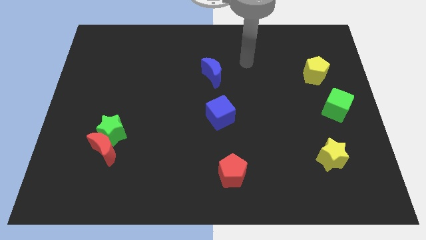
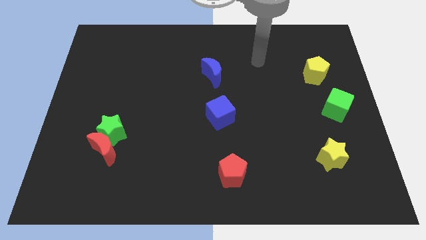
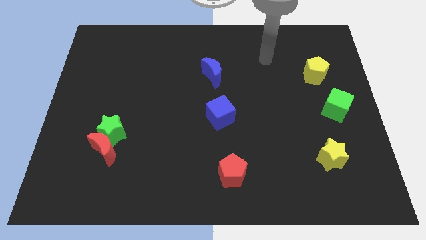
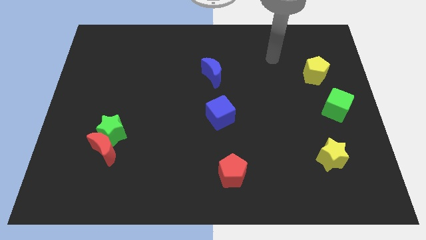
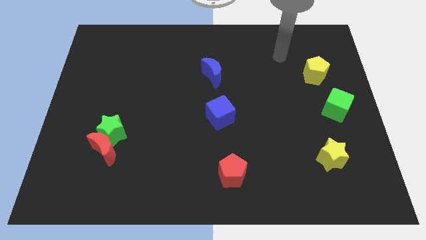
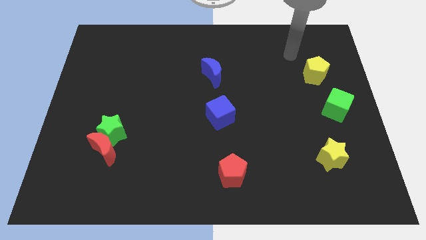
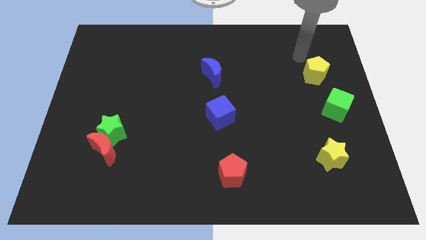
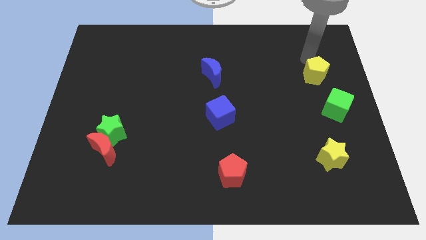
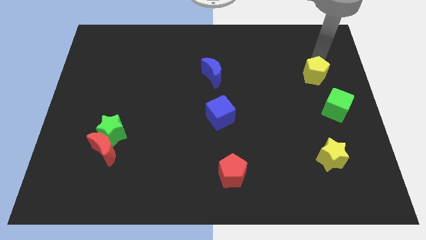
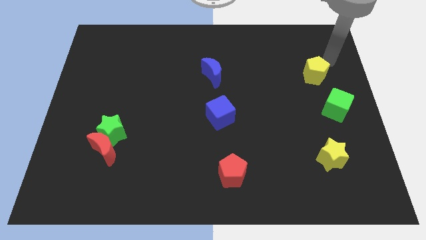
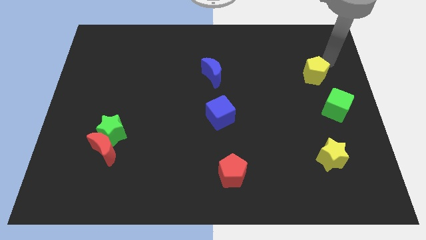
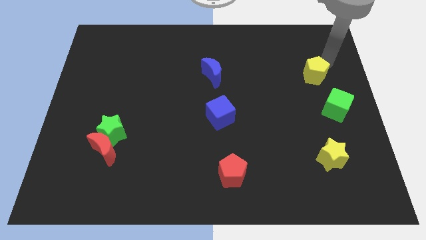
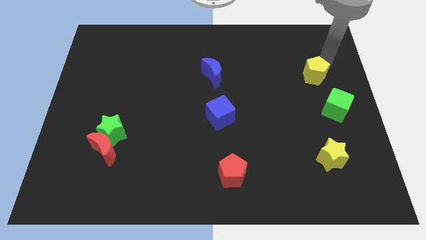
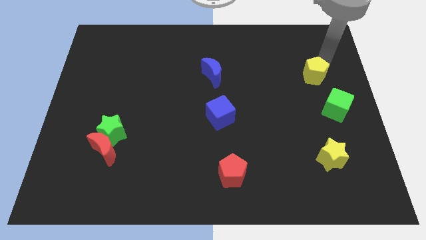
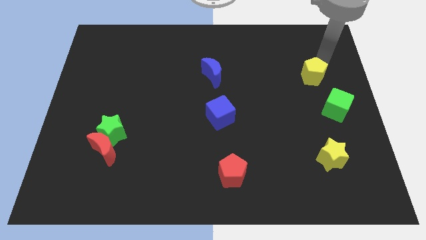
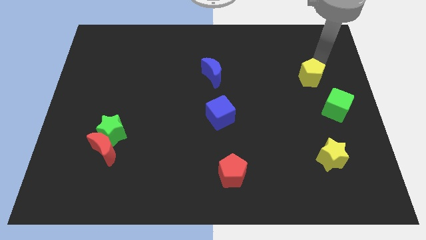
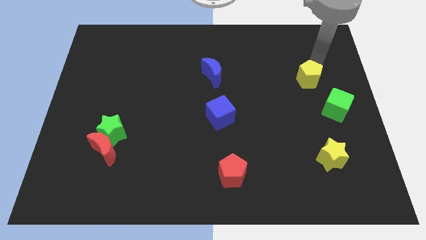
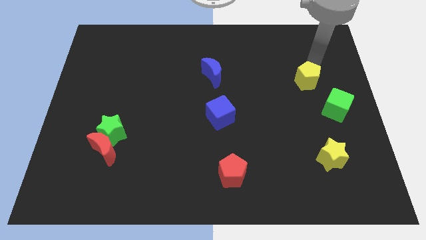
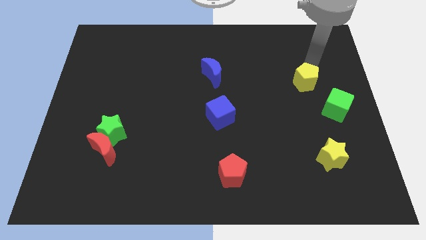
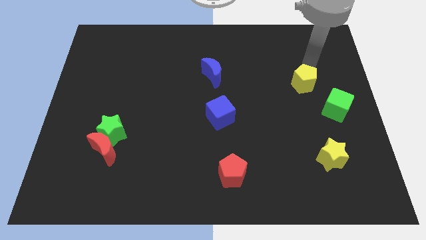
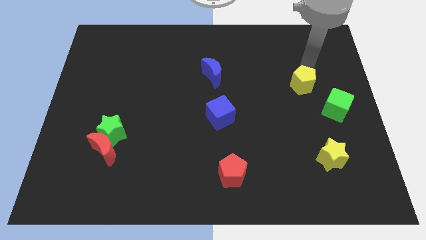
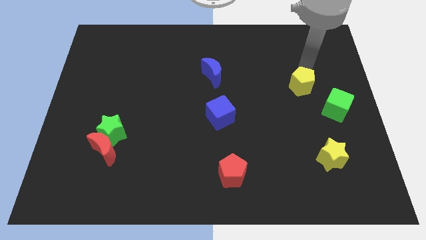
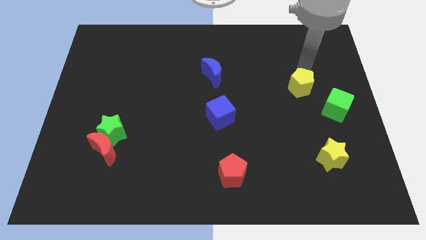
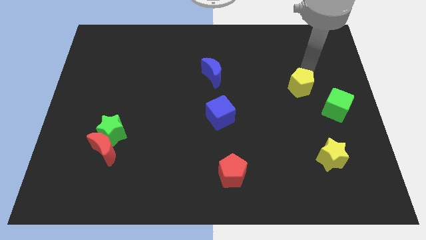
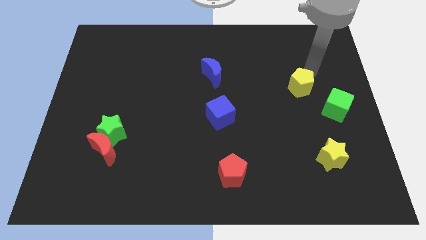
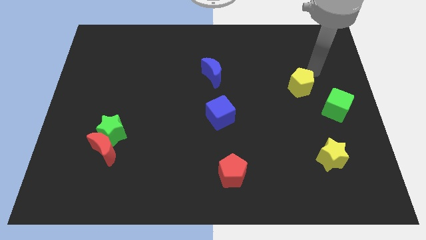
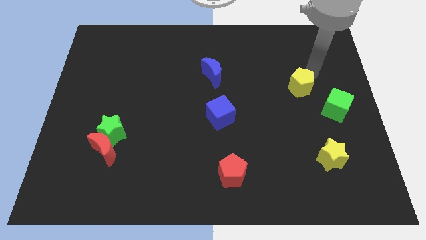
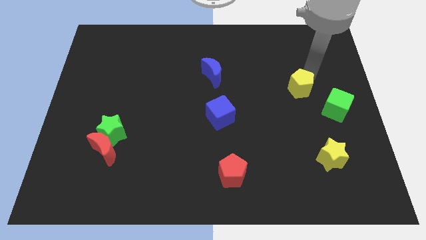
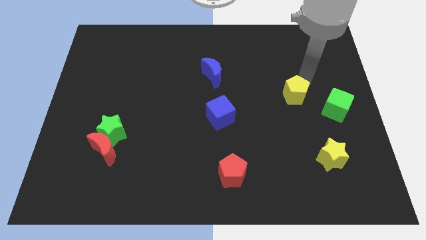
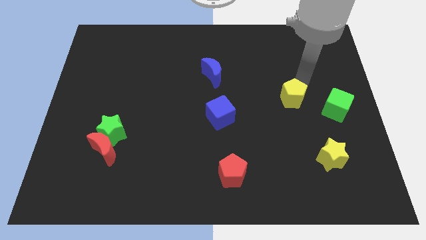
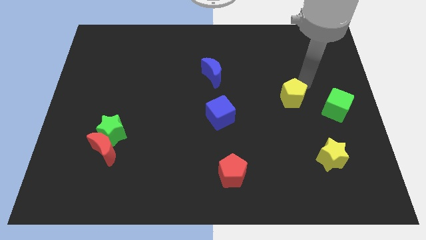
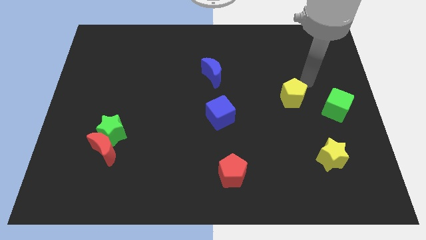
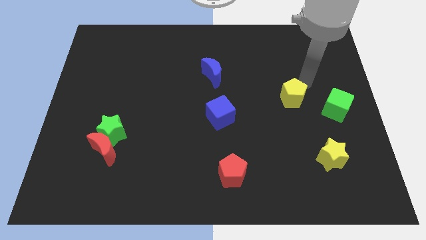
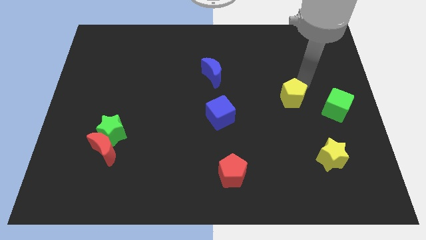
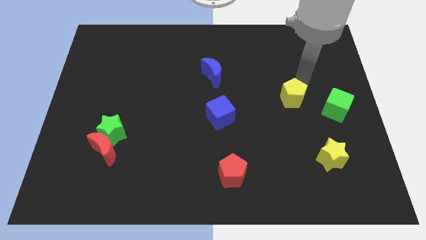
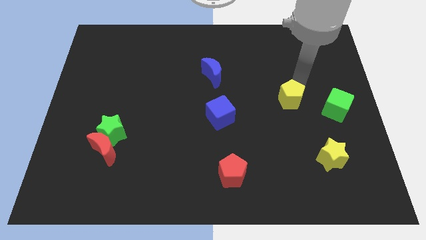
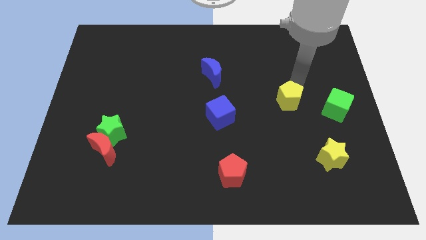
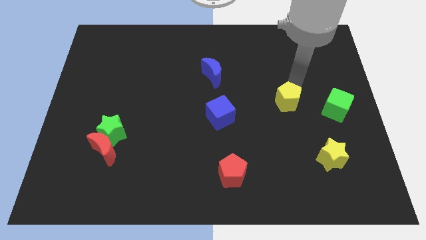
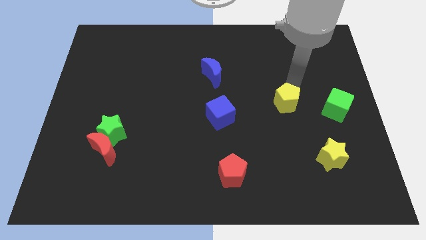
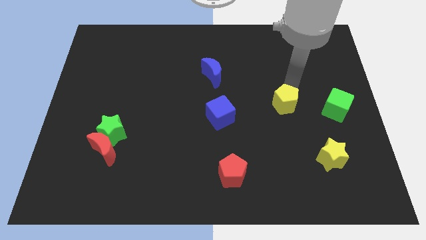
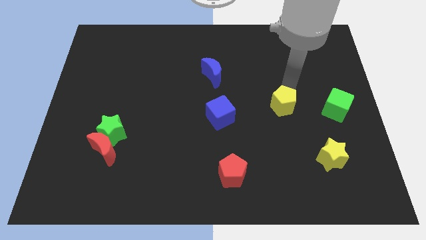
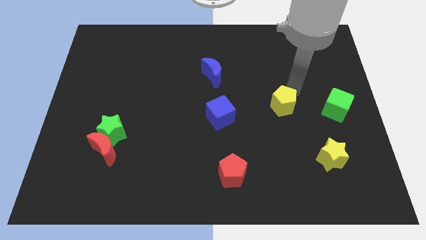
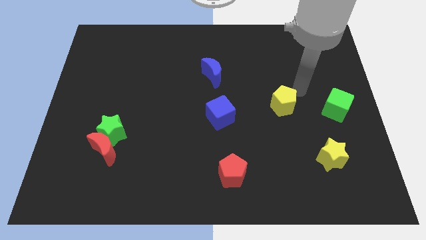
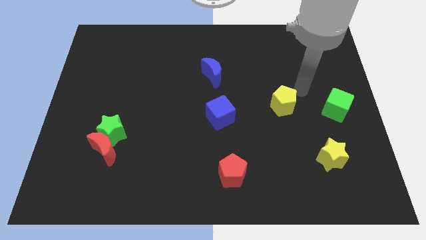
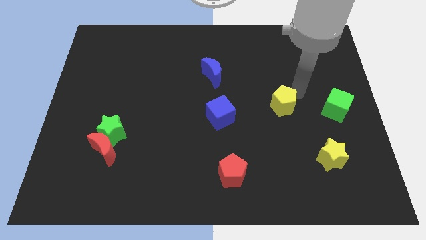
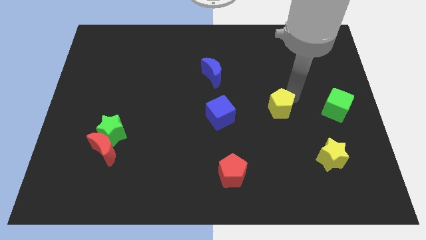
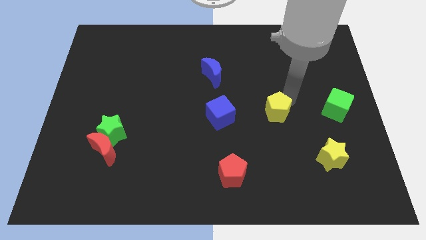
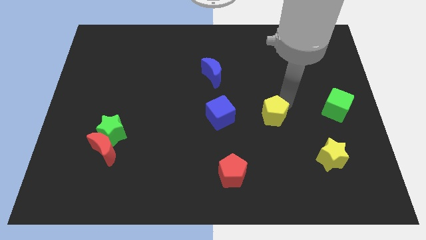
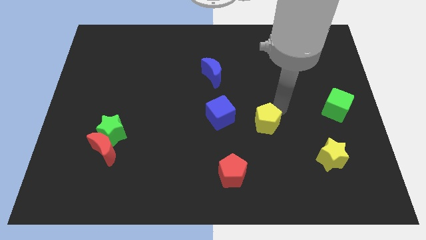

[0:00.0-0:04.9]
move the yellow pentagon down and to the left

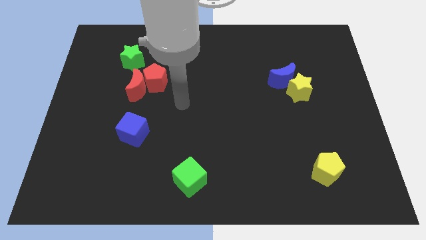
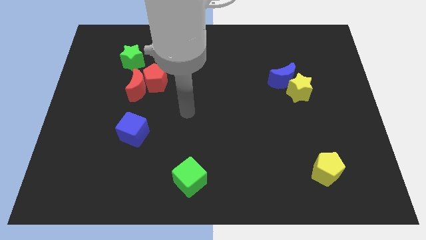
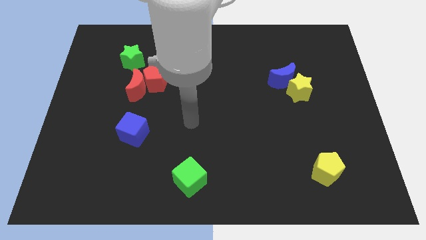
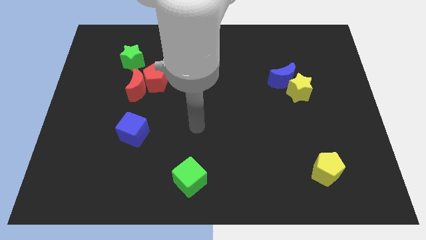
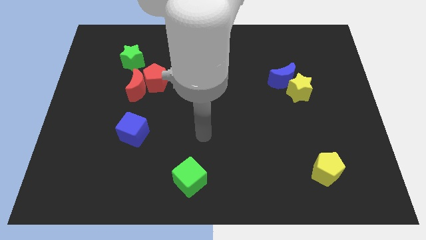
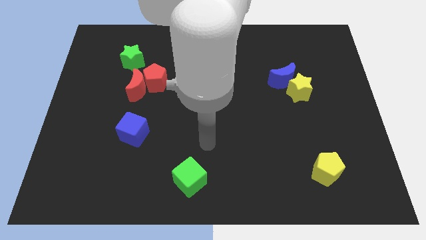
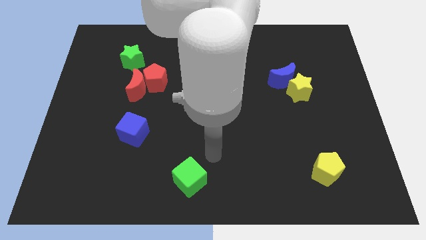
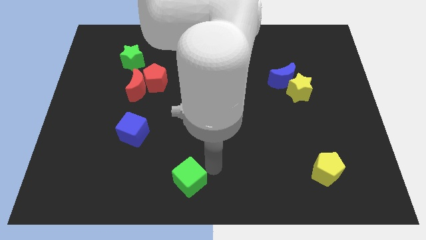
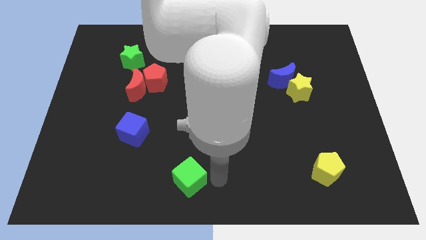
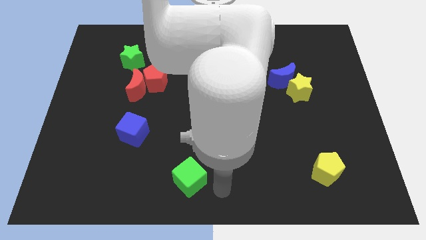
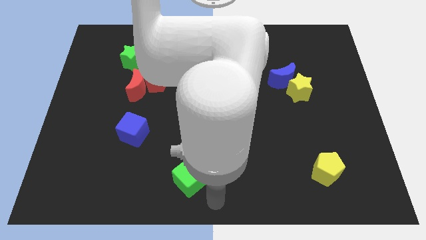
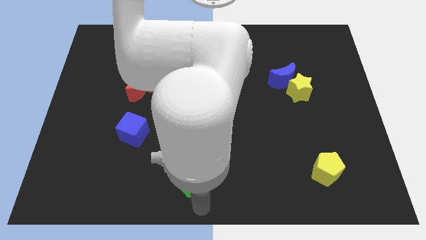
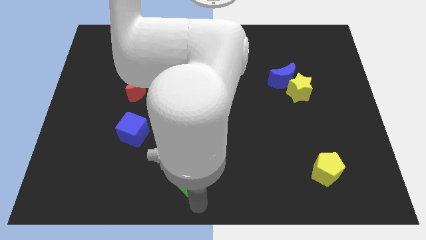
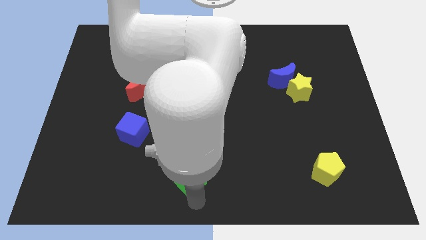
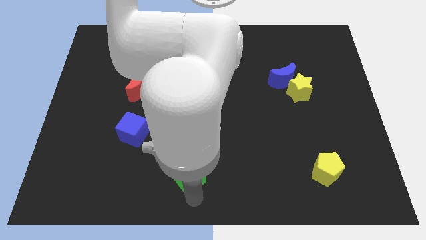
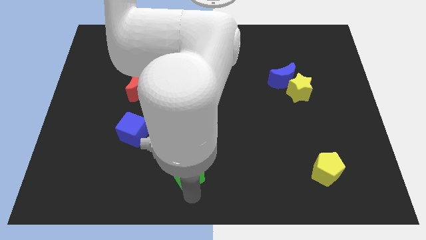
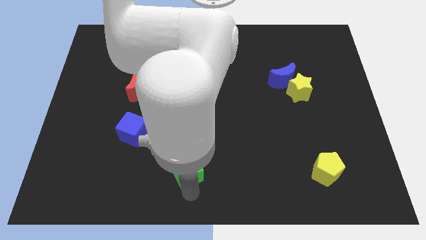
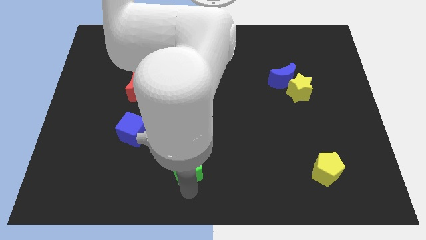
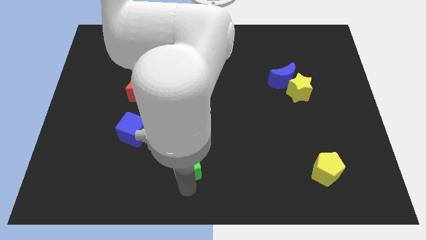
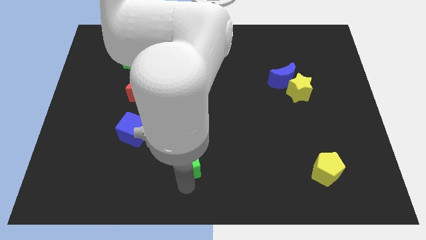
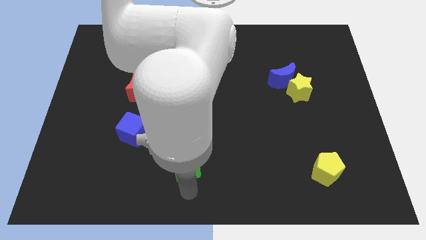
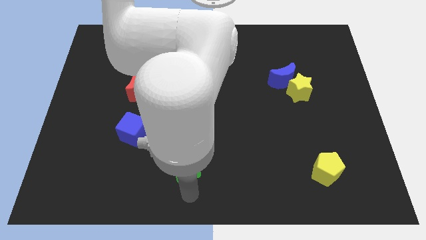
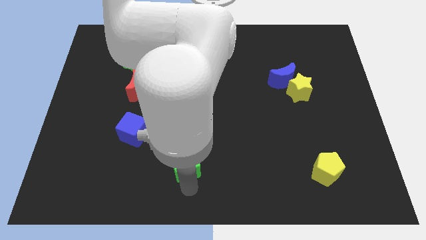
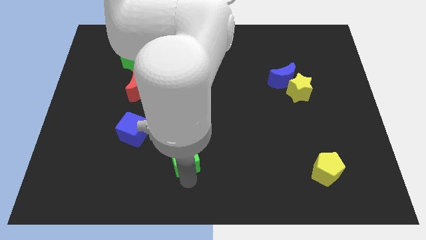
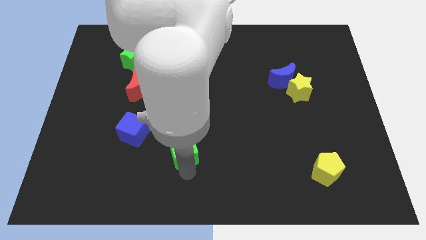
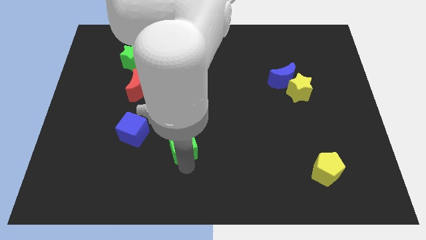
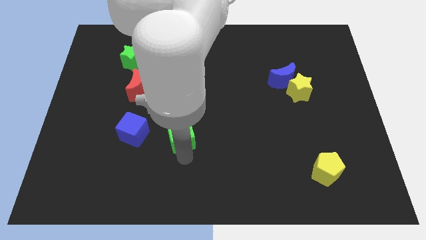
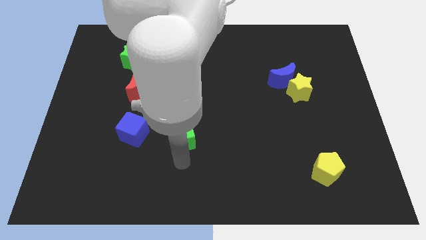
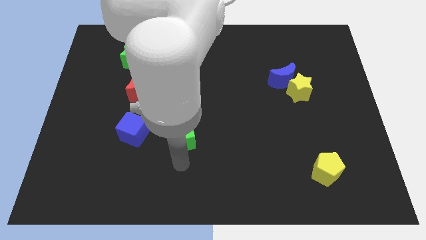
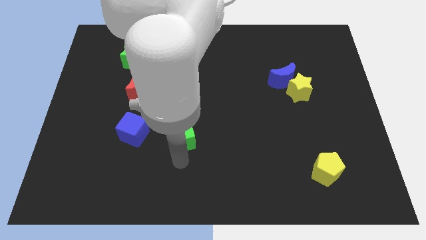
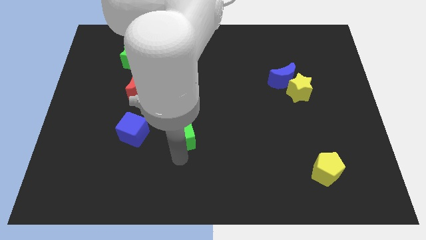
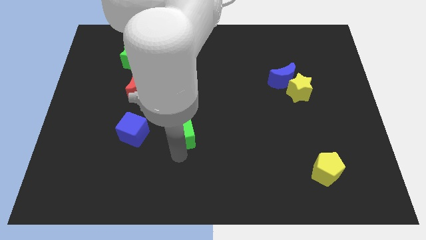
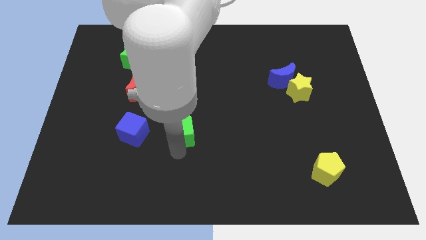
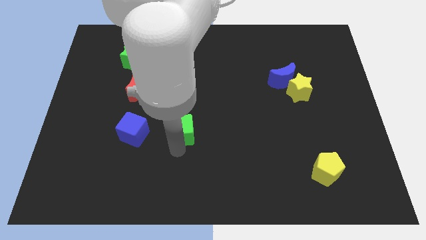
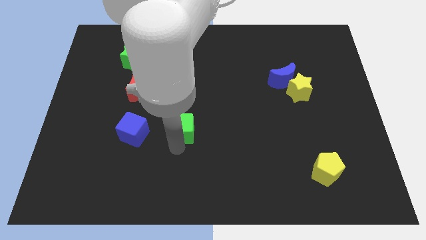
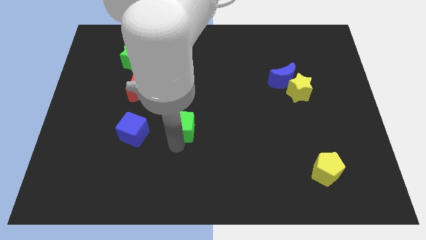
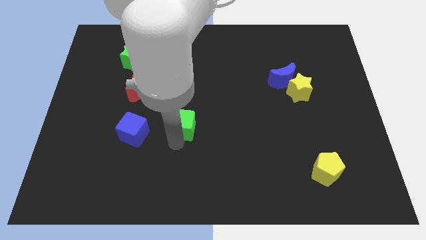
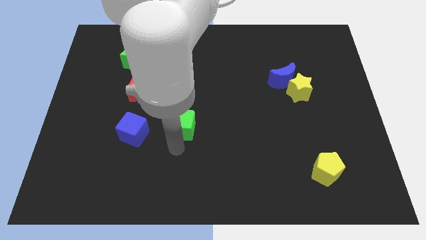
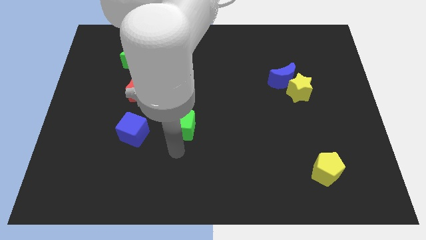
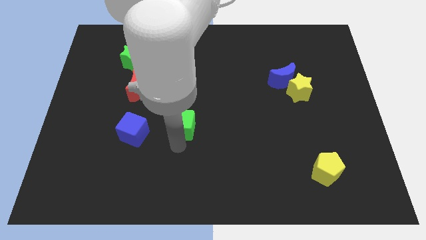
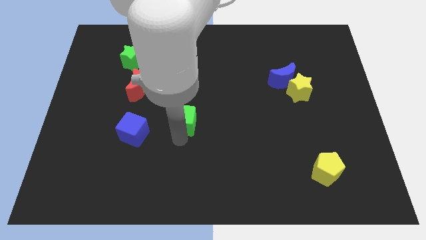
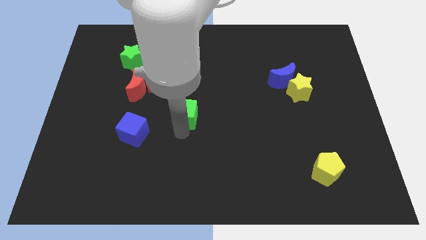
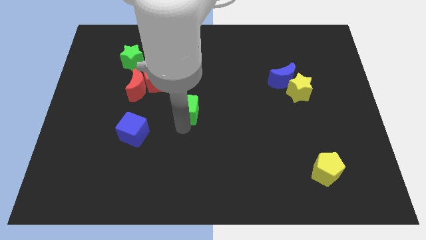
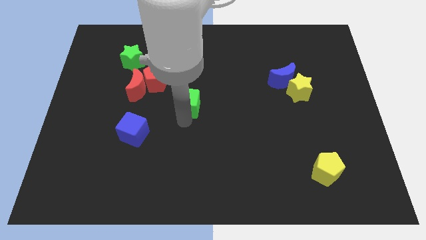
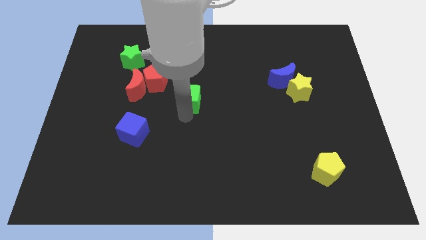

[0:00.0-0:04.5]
slide the green cube upwards
